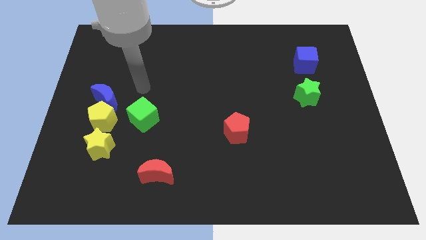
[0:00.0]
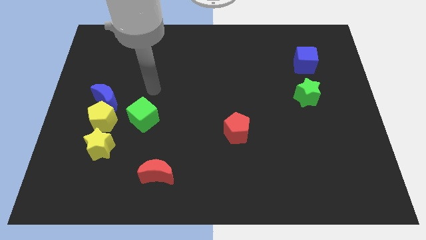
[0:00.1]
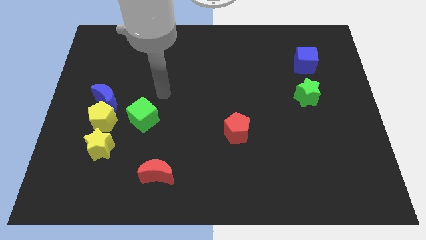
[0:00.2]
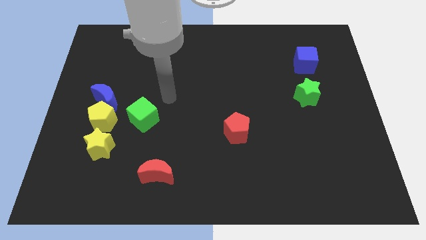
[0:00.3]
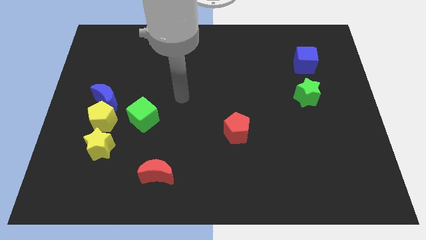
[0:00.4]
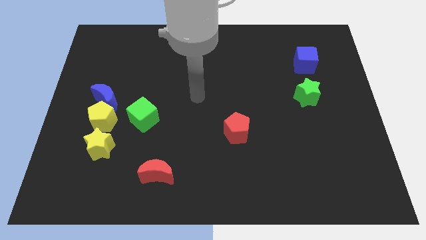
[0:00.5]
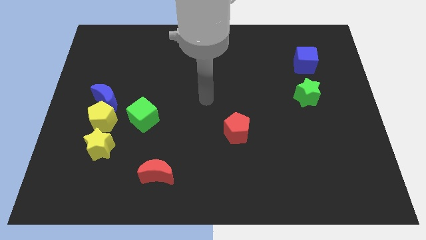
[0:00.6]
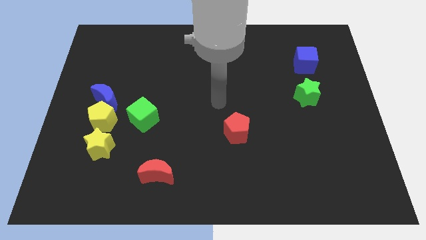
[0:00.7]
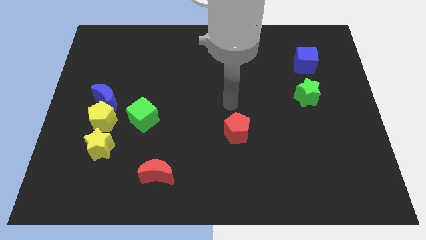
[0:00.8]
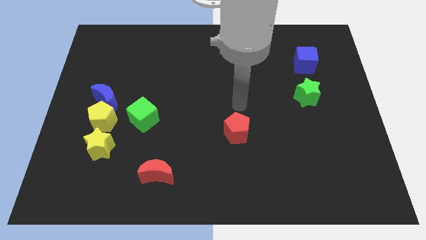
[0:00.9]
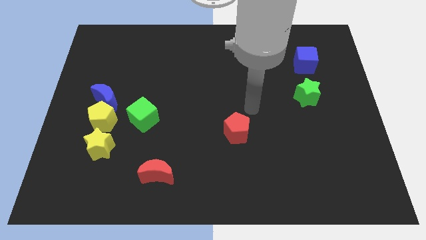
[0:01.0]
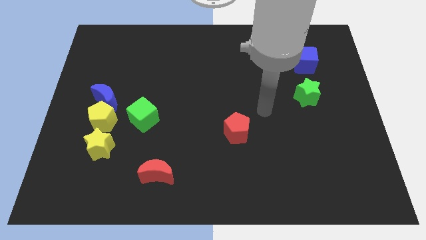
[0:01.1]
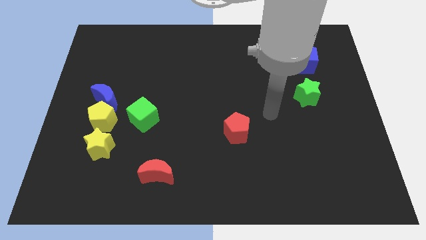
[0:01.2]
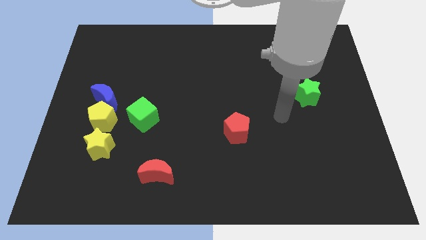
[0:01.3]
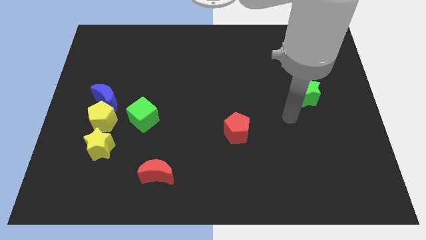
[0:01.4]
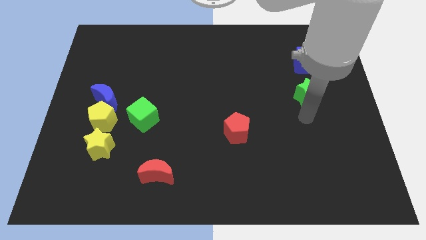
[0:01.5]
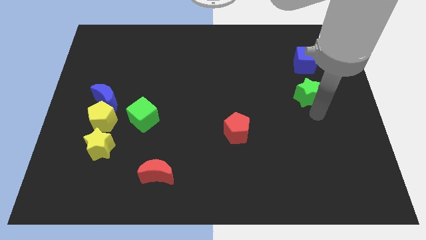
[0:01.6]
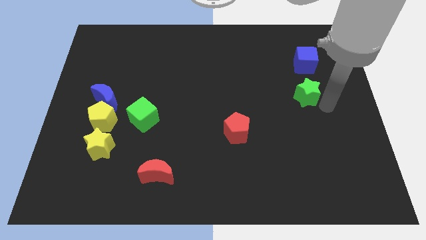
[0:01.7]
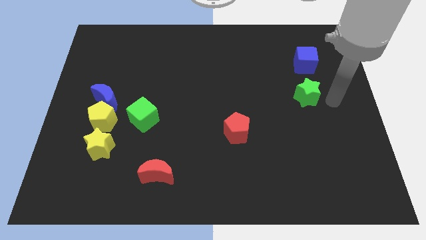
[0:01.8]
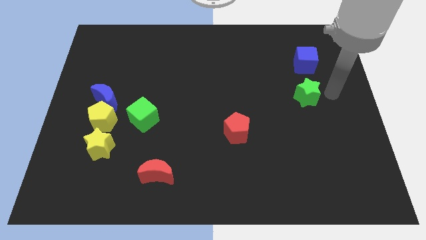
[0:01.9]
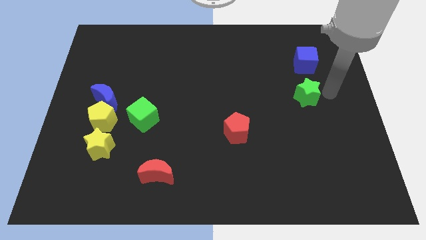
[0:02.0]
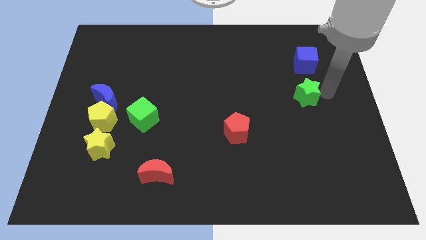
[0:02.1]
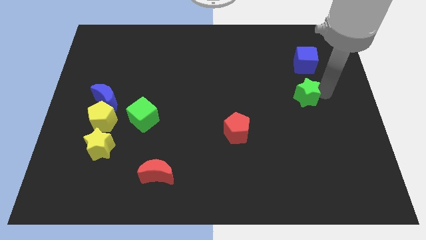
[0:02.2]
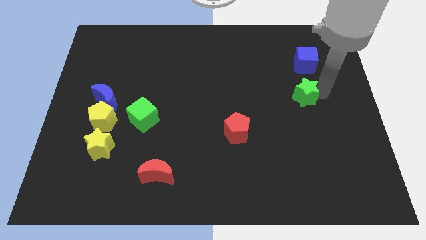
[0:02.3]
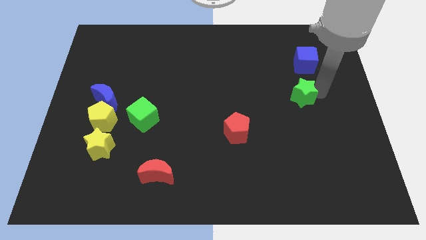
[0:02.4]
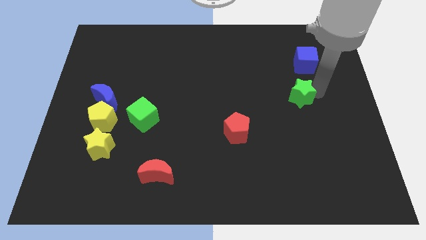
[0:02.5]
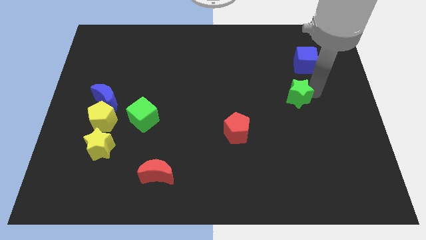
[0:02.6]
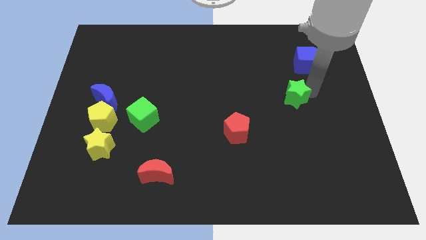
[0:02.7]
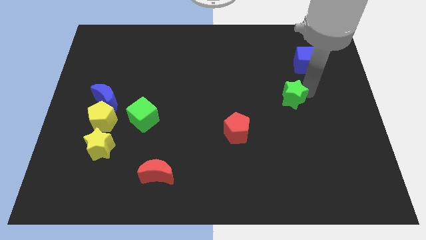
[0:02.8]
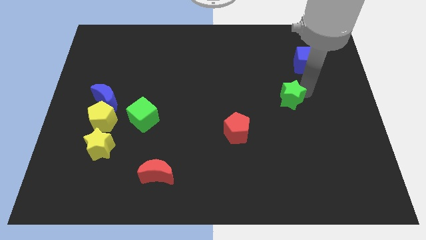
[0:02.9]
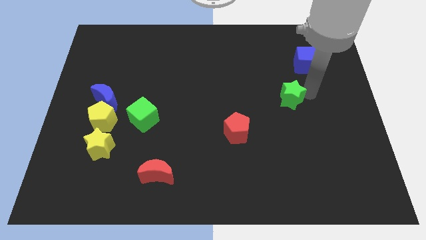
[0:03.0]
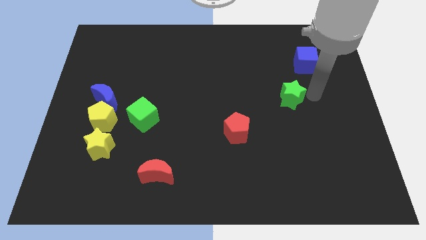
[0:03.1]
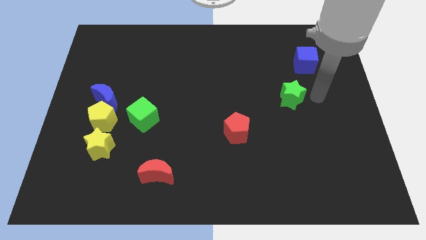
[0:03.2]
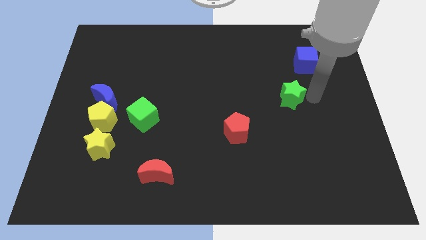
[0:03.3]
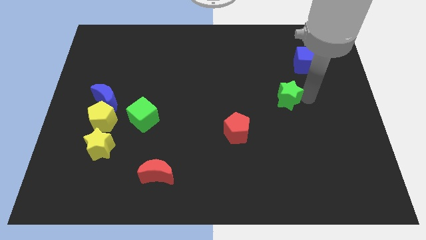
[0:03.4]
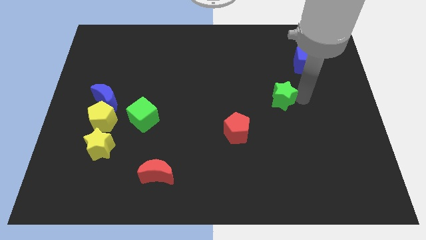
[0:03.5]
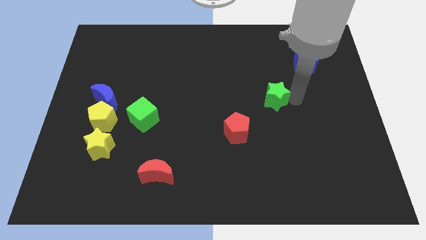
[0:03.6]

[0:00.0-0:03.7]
slightly push the green star left

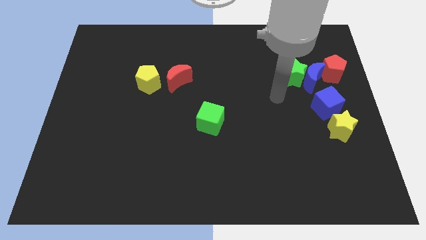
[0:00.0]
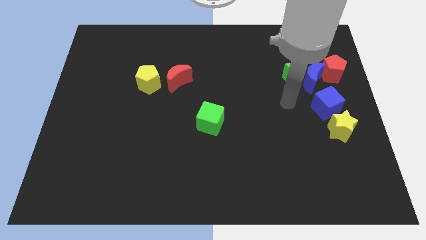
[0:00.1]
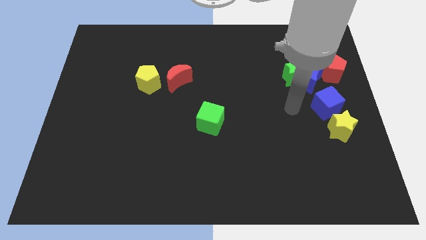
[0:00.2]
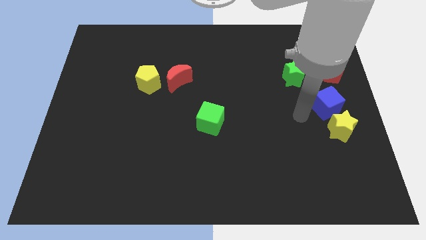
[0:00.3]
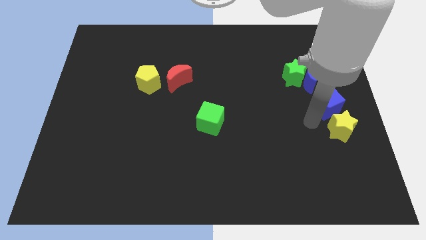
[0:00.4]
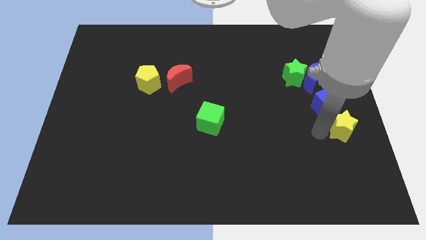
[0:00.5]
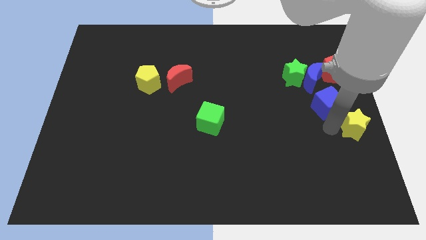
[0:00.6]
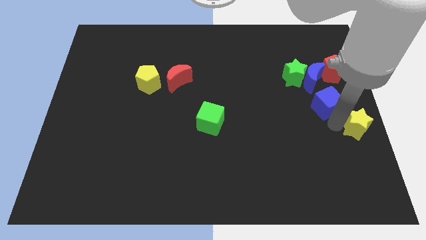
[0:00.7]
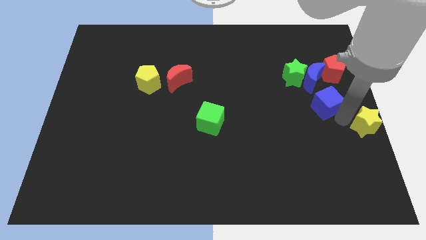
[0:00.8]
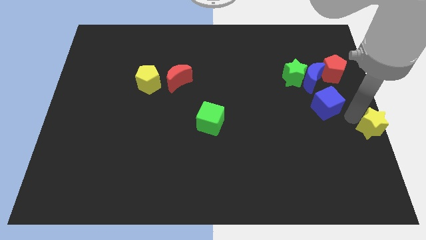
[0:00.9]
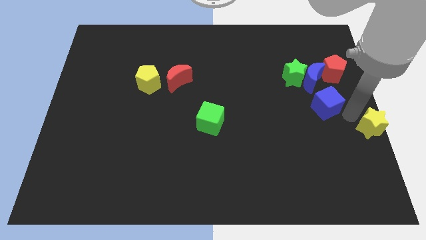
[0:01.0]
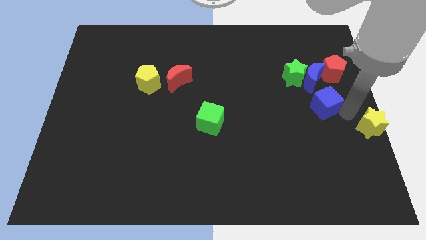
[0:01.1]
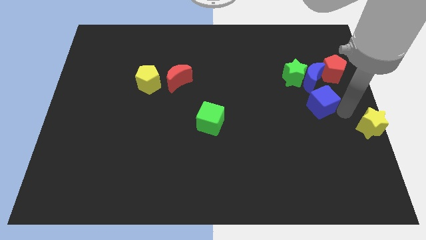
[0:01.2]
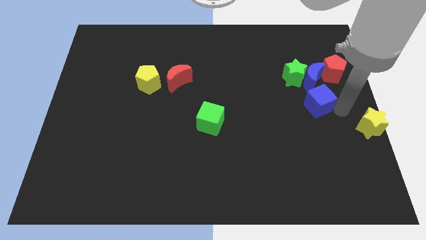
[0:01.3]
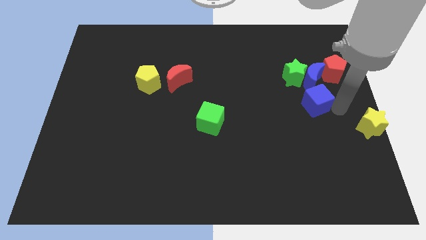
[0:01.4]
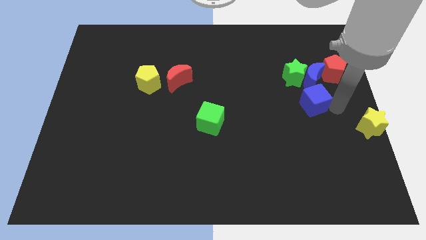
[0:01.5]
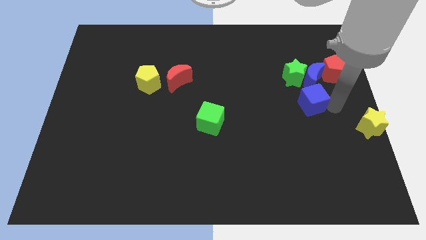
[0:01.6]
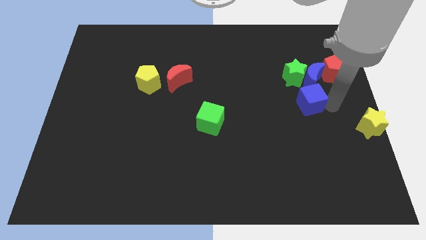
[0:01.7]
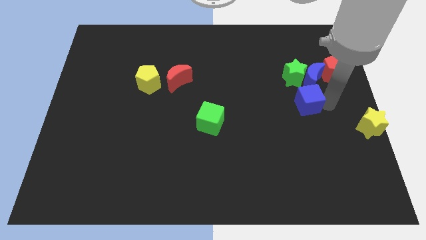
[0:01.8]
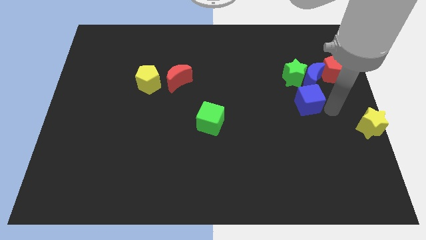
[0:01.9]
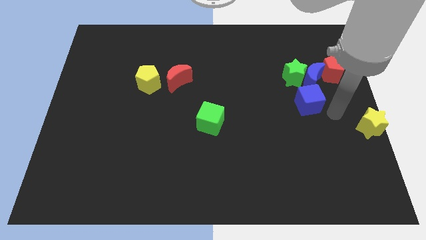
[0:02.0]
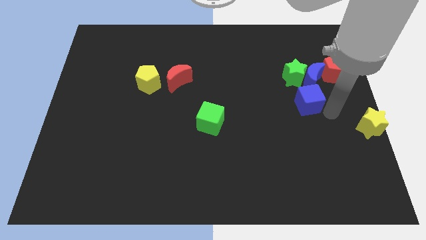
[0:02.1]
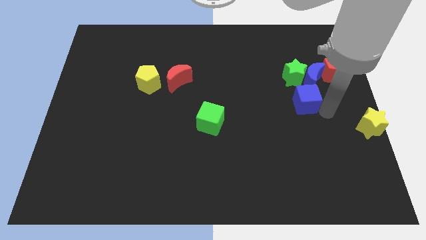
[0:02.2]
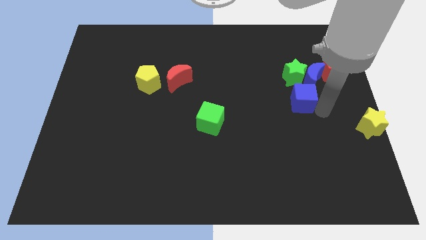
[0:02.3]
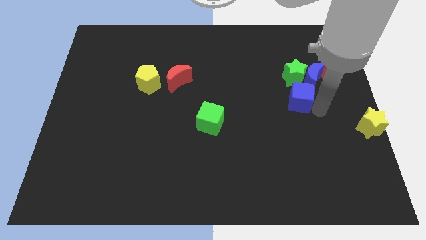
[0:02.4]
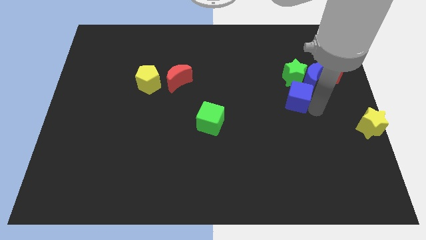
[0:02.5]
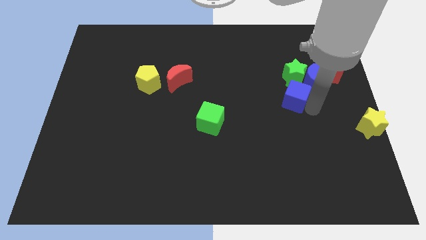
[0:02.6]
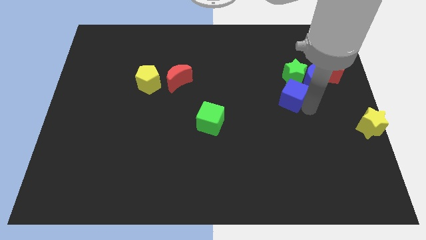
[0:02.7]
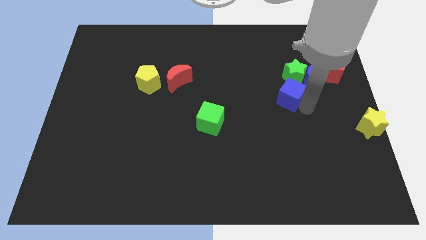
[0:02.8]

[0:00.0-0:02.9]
slightly move the blue cube up and left diagonally

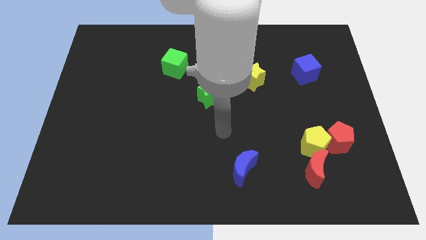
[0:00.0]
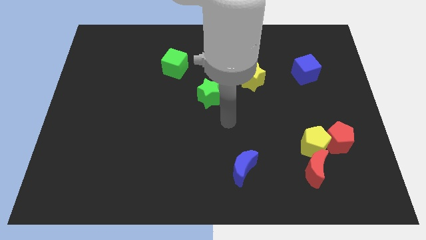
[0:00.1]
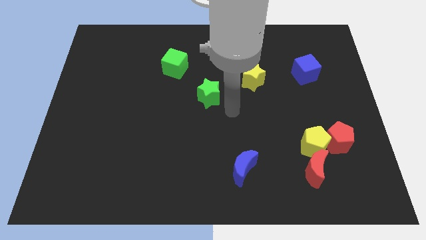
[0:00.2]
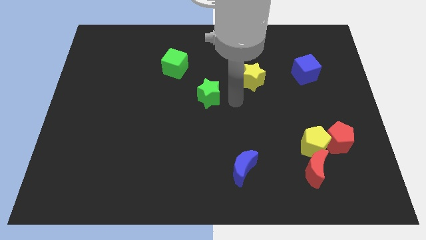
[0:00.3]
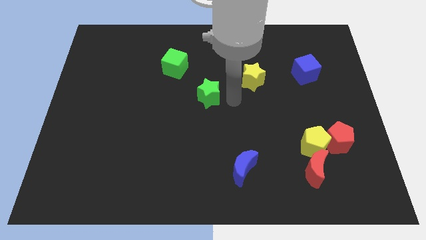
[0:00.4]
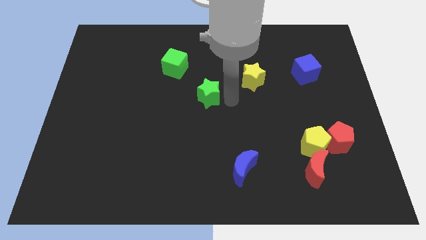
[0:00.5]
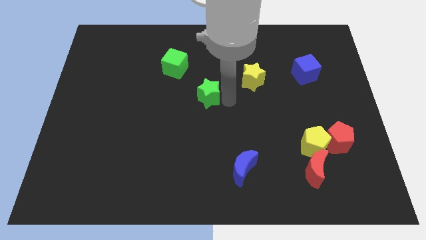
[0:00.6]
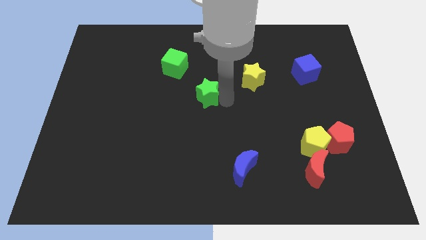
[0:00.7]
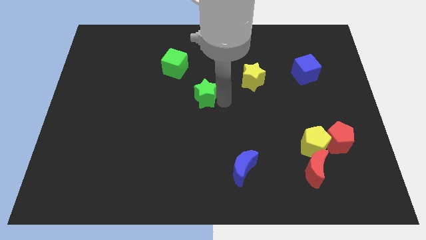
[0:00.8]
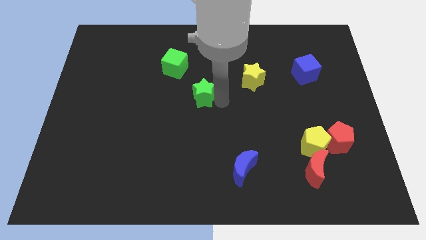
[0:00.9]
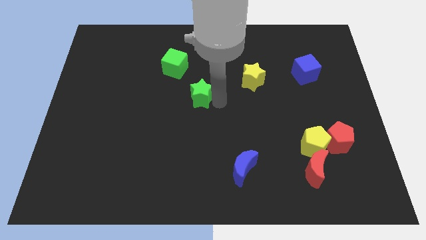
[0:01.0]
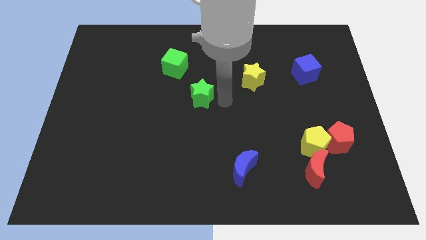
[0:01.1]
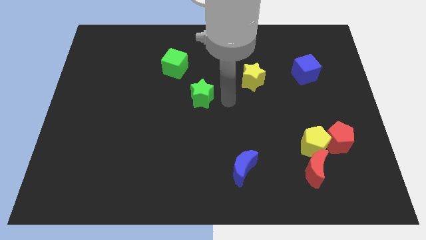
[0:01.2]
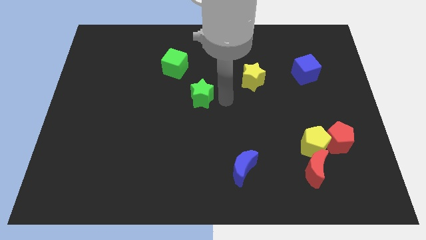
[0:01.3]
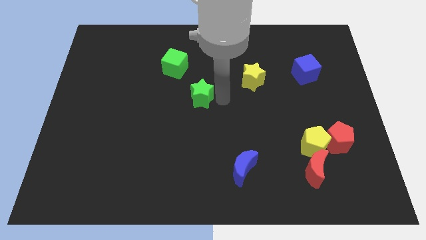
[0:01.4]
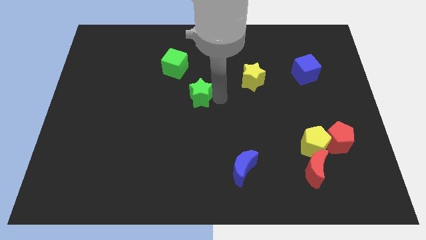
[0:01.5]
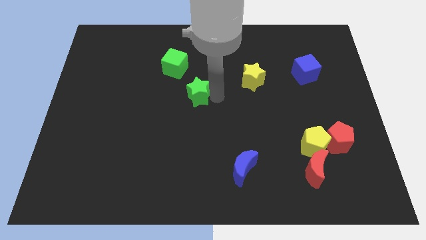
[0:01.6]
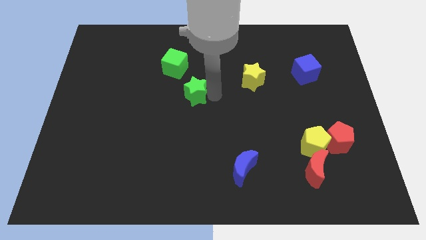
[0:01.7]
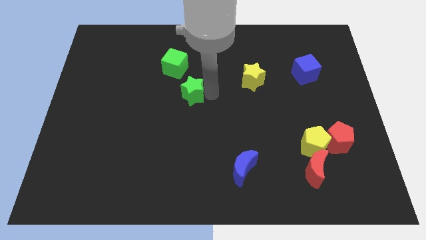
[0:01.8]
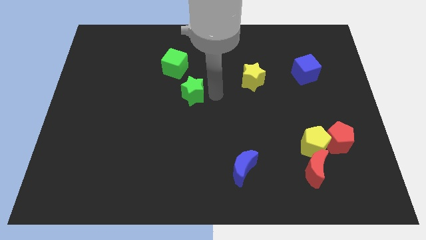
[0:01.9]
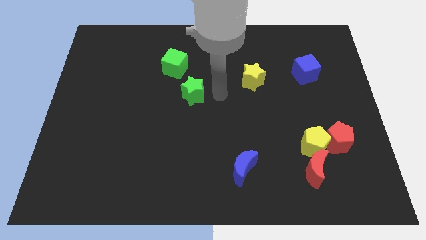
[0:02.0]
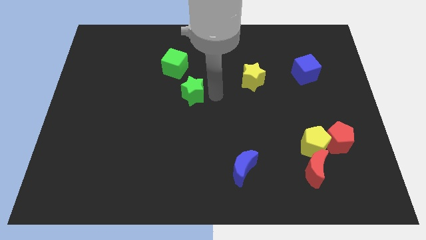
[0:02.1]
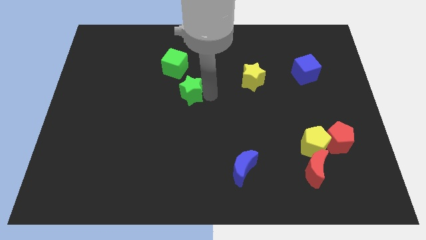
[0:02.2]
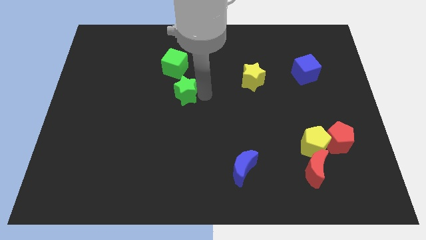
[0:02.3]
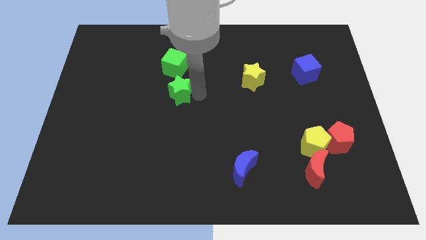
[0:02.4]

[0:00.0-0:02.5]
slightly slide the green star to the left
